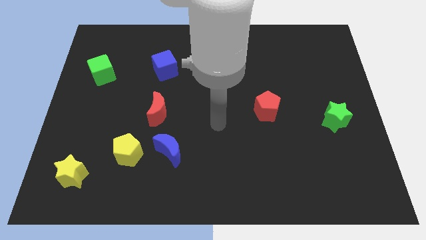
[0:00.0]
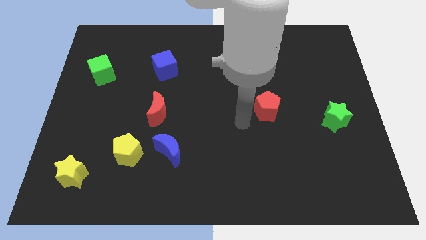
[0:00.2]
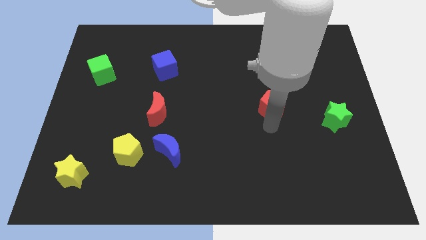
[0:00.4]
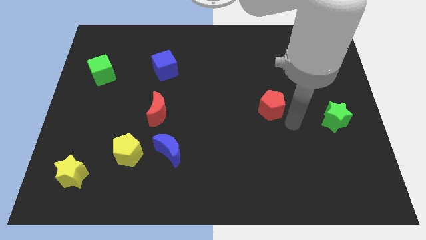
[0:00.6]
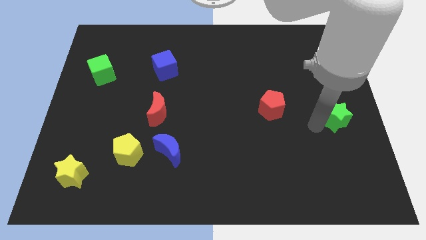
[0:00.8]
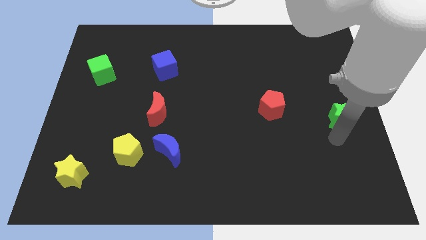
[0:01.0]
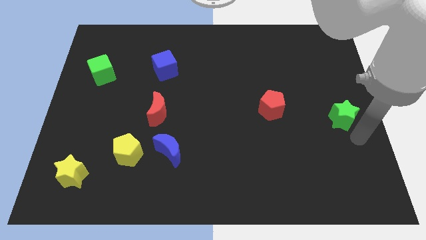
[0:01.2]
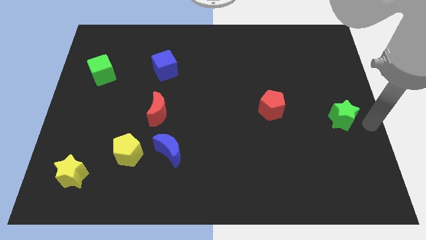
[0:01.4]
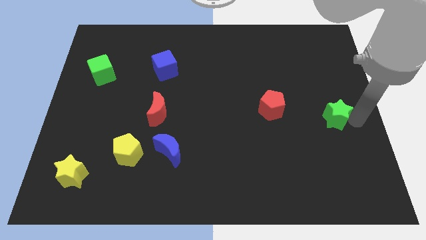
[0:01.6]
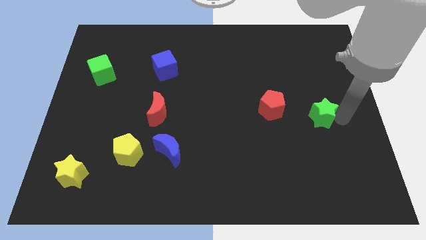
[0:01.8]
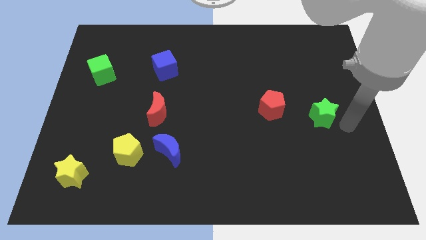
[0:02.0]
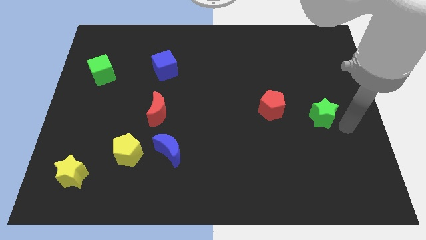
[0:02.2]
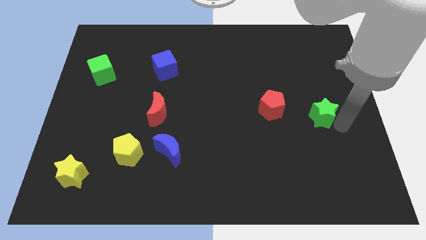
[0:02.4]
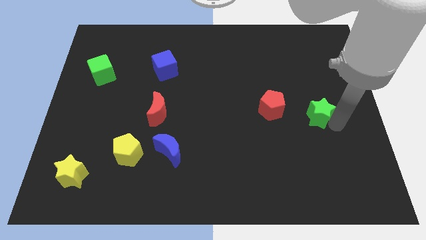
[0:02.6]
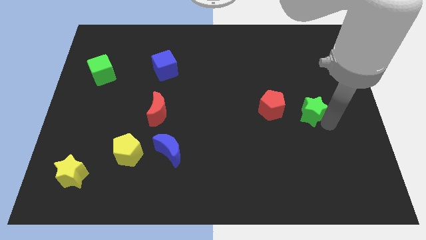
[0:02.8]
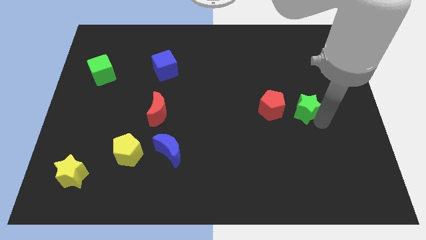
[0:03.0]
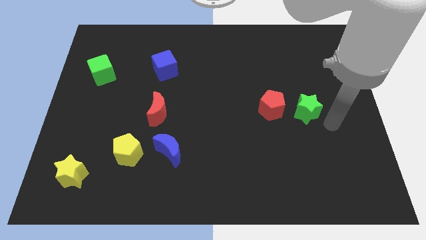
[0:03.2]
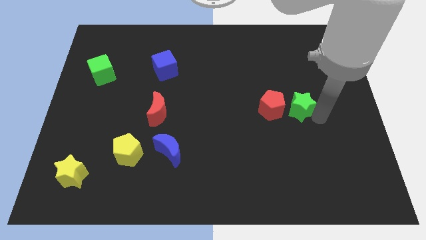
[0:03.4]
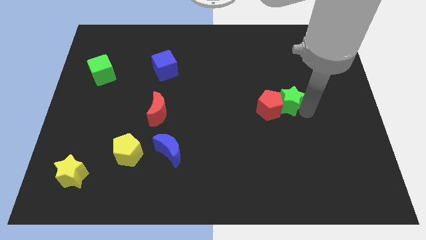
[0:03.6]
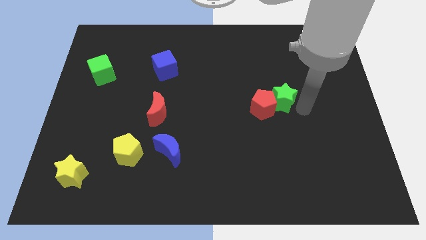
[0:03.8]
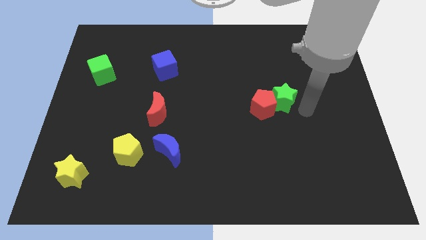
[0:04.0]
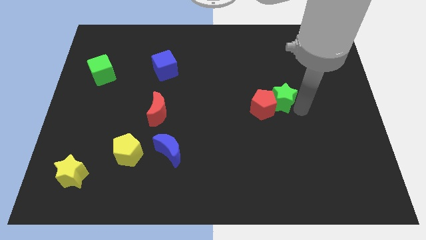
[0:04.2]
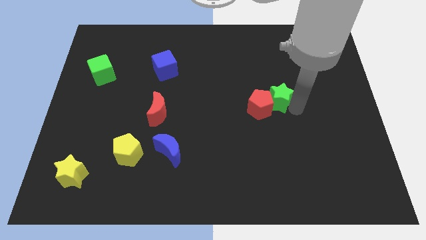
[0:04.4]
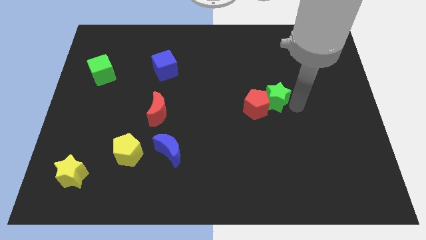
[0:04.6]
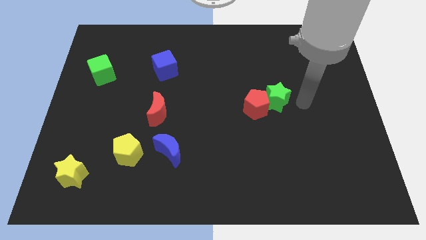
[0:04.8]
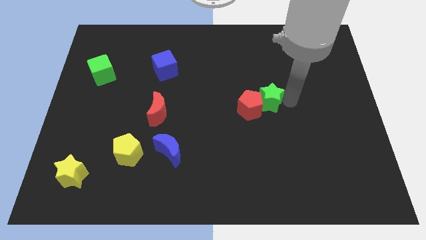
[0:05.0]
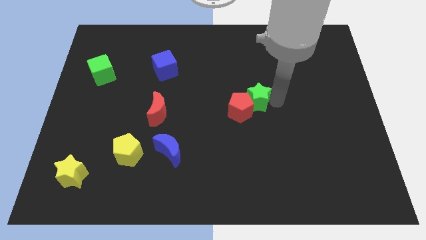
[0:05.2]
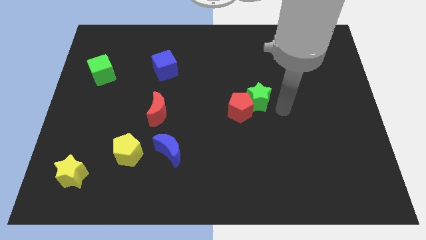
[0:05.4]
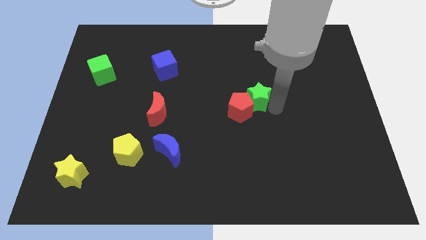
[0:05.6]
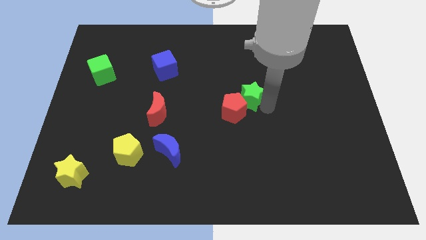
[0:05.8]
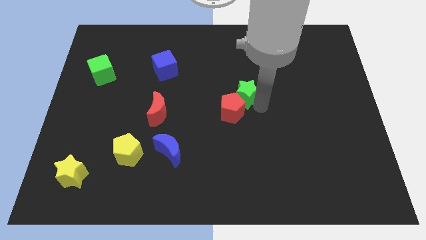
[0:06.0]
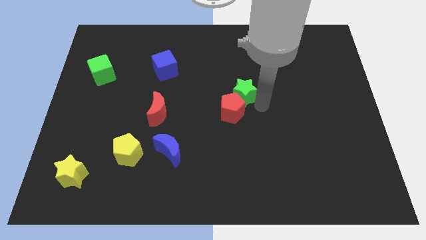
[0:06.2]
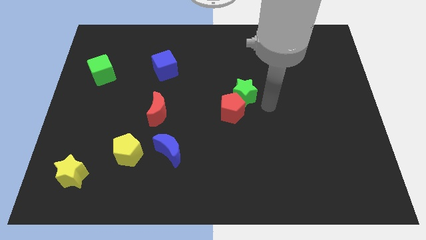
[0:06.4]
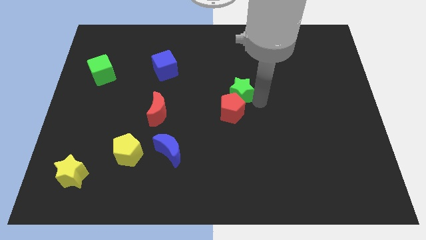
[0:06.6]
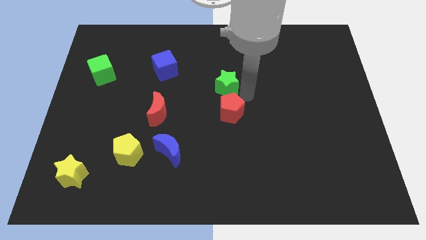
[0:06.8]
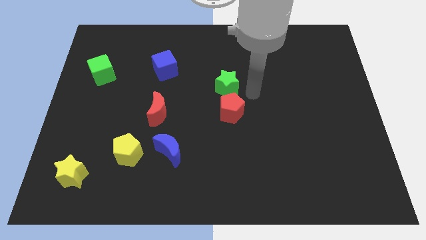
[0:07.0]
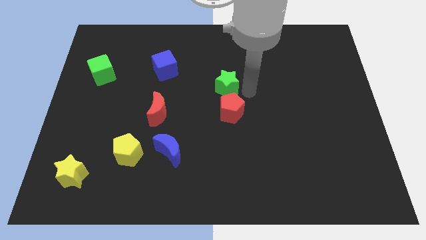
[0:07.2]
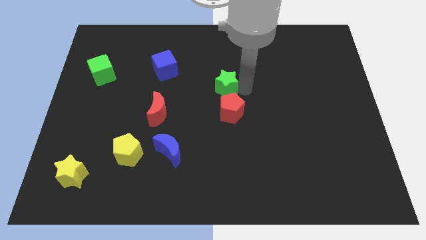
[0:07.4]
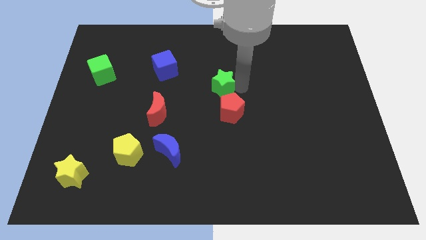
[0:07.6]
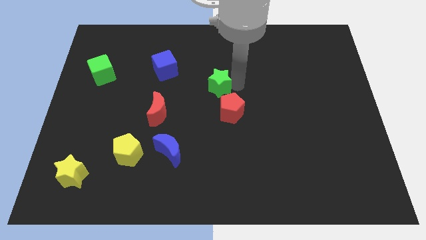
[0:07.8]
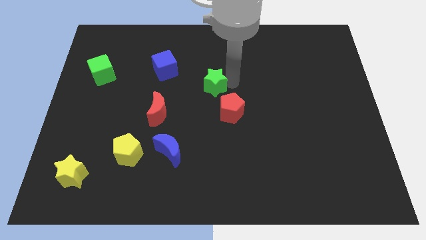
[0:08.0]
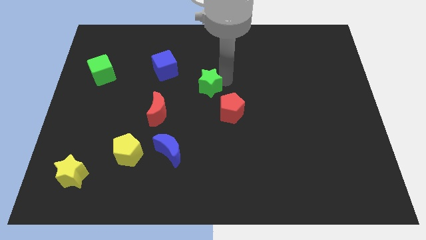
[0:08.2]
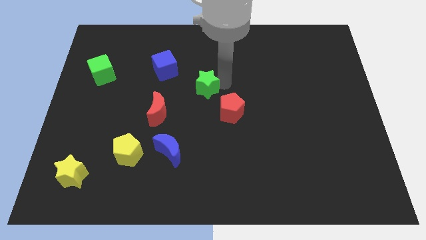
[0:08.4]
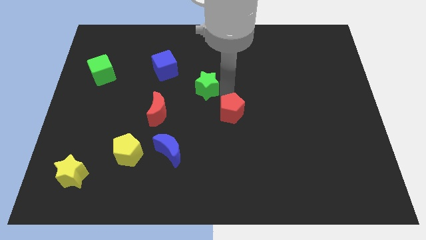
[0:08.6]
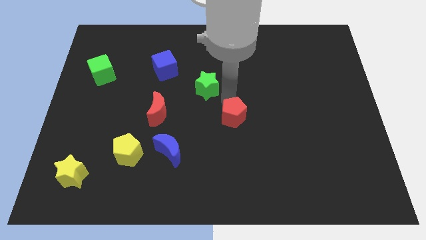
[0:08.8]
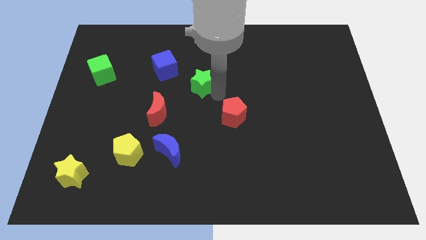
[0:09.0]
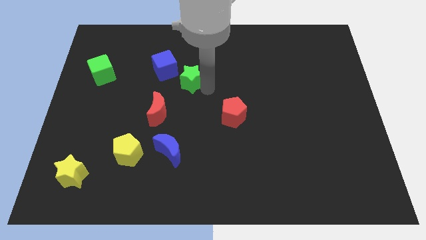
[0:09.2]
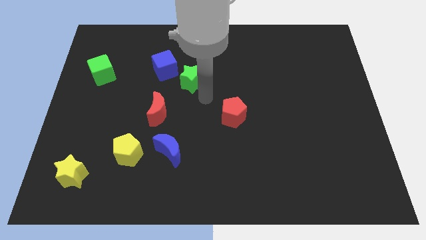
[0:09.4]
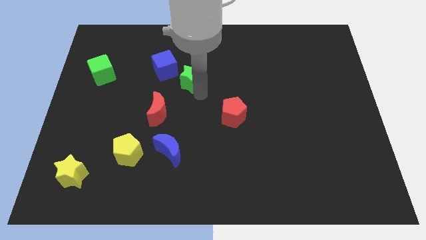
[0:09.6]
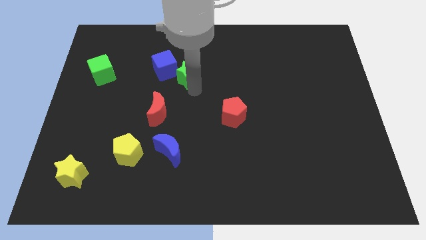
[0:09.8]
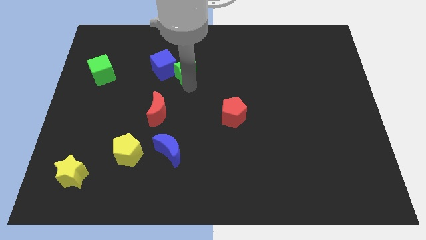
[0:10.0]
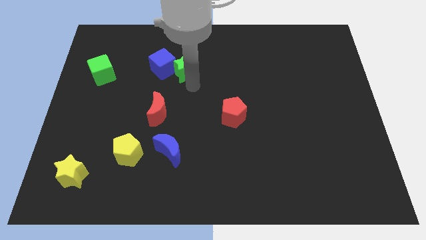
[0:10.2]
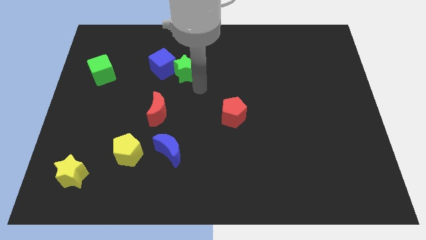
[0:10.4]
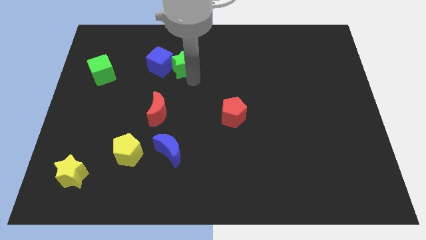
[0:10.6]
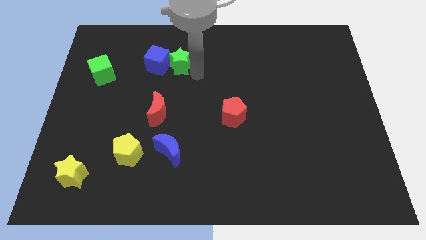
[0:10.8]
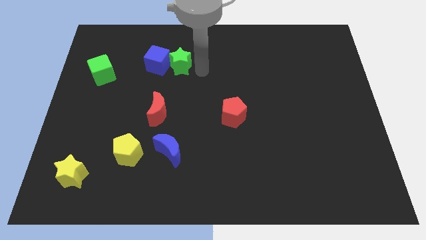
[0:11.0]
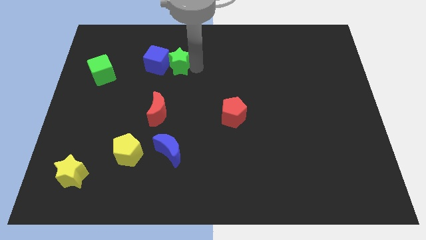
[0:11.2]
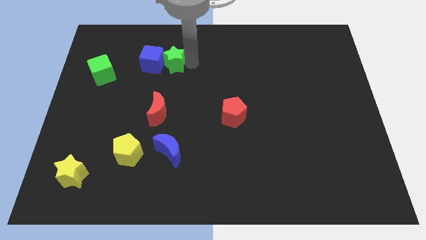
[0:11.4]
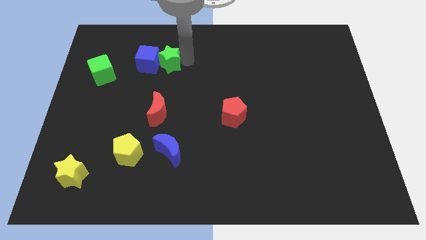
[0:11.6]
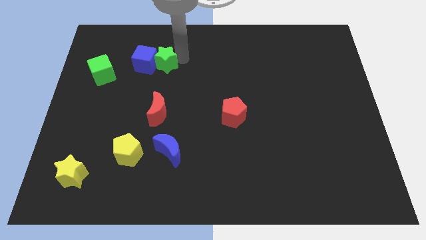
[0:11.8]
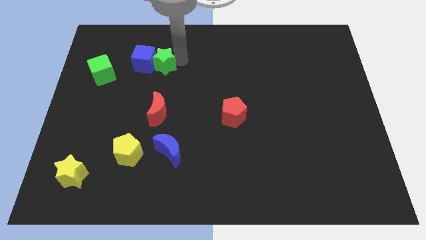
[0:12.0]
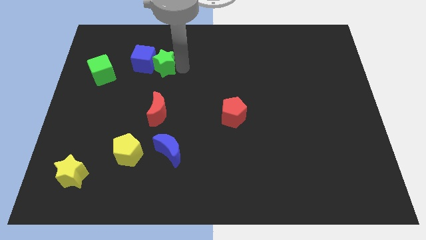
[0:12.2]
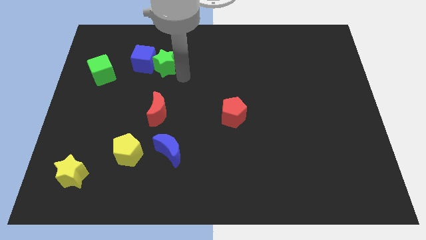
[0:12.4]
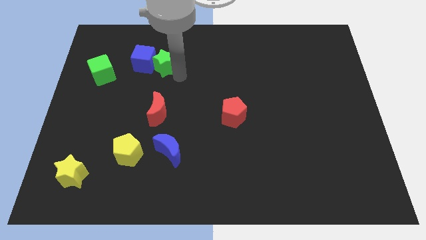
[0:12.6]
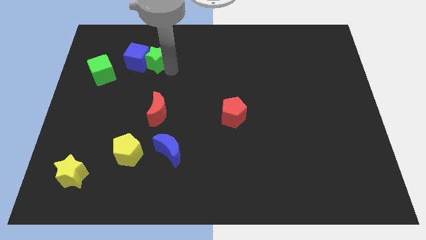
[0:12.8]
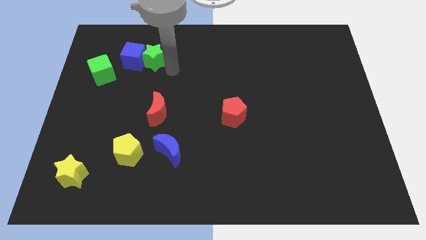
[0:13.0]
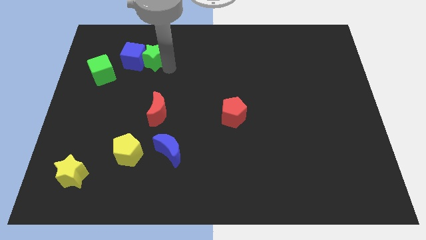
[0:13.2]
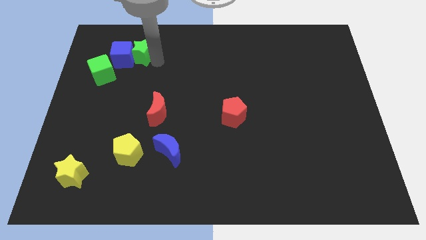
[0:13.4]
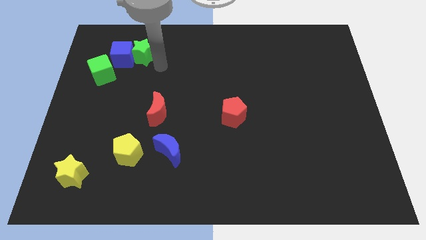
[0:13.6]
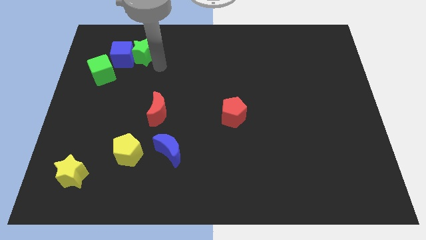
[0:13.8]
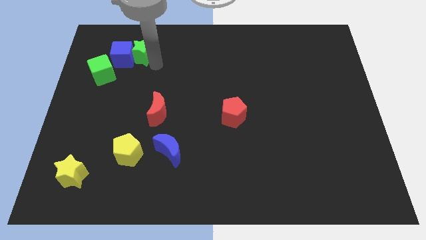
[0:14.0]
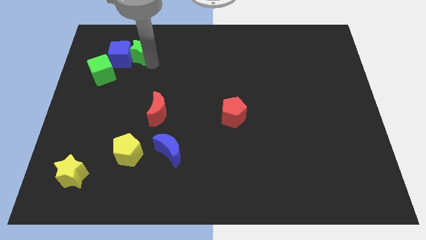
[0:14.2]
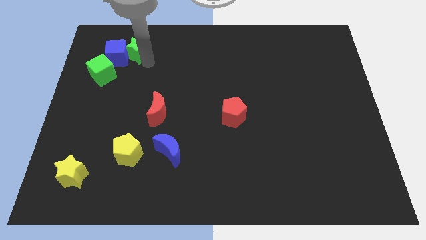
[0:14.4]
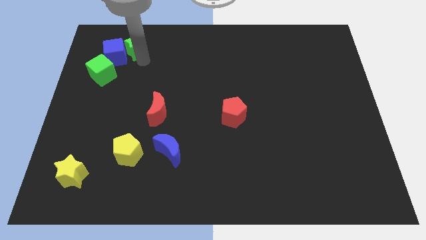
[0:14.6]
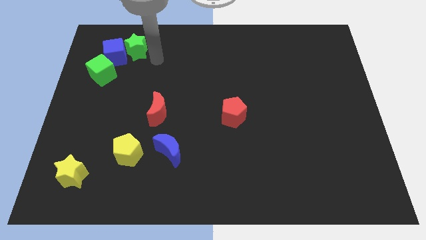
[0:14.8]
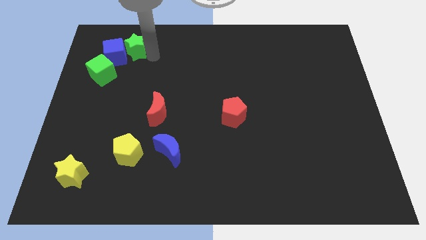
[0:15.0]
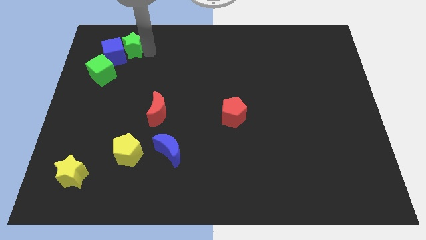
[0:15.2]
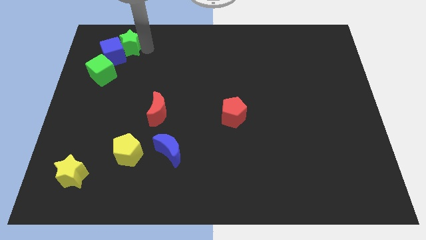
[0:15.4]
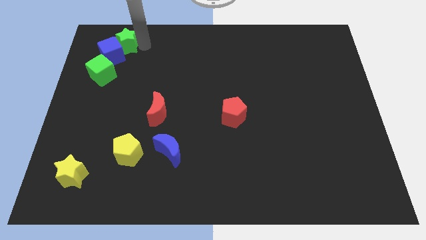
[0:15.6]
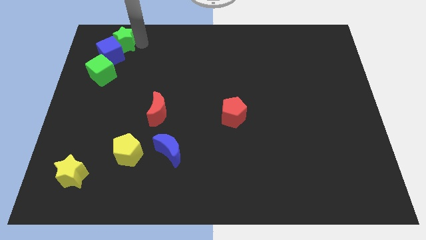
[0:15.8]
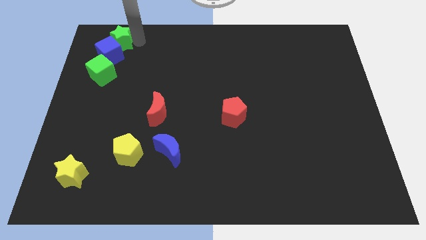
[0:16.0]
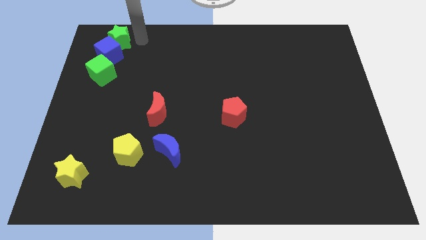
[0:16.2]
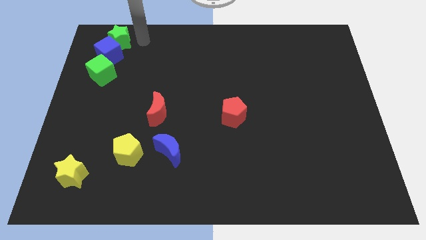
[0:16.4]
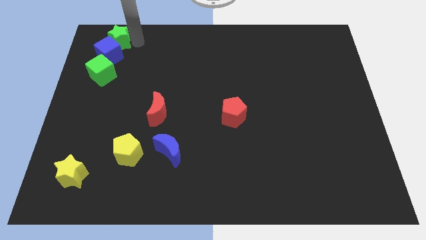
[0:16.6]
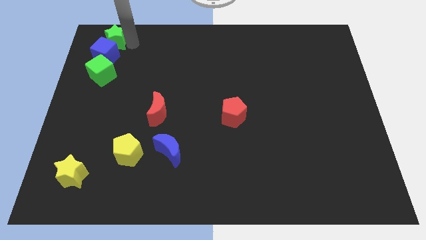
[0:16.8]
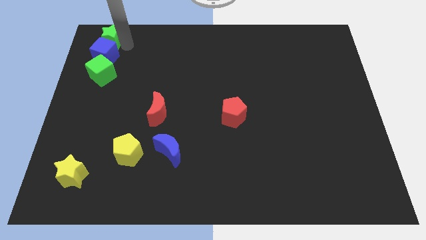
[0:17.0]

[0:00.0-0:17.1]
put the green star to the upper left corner
